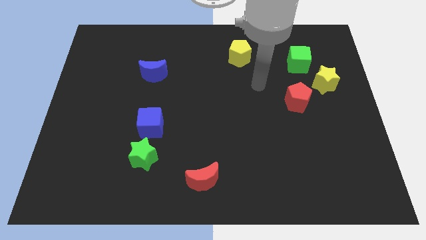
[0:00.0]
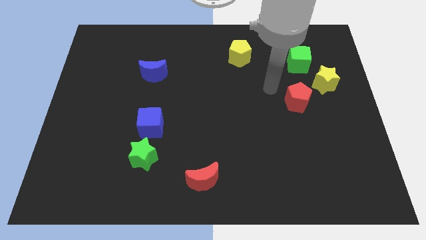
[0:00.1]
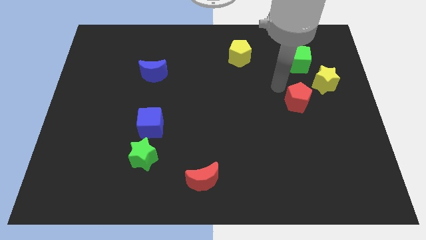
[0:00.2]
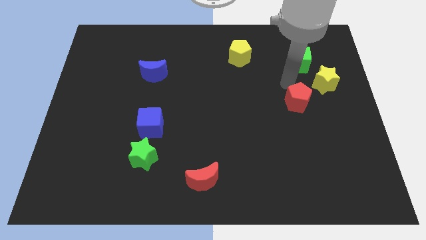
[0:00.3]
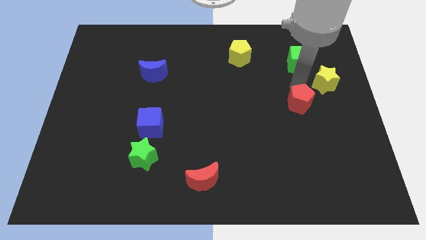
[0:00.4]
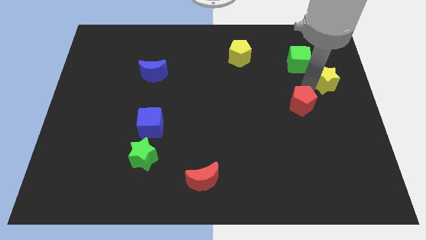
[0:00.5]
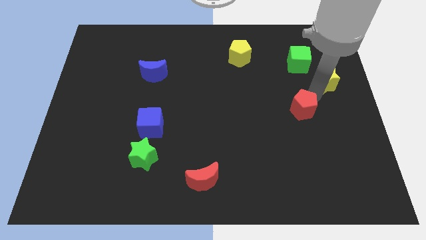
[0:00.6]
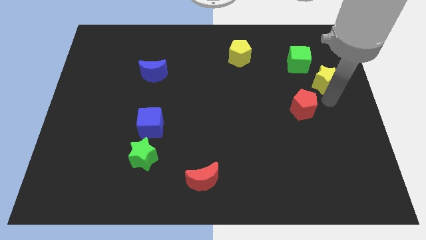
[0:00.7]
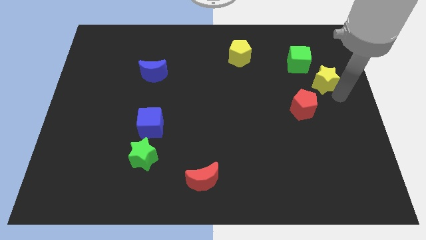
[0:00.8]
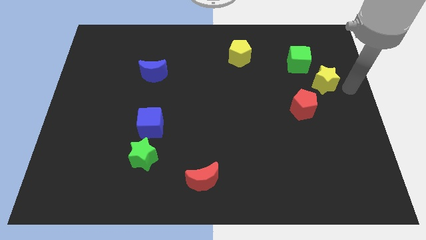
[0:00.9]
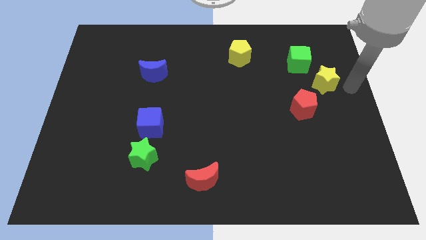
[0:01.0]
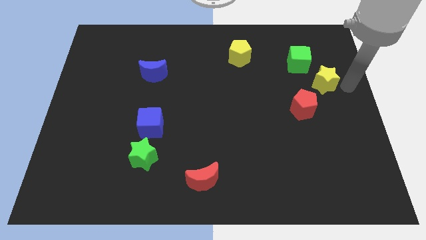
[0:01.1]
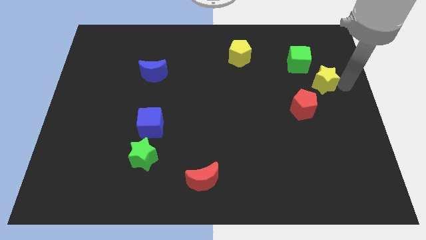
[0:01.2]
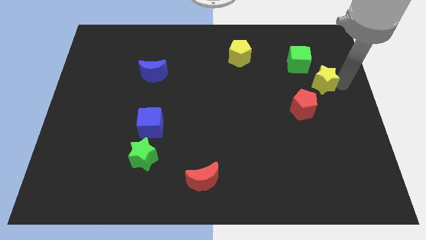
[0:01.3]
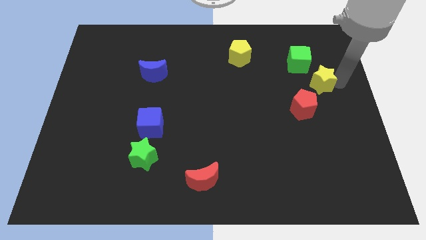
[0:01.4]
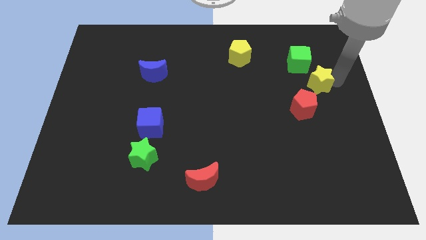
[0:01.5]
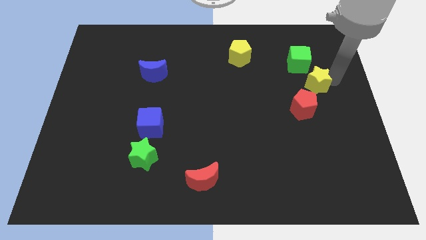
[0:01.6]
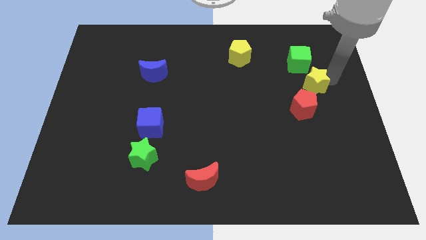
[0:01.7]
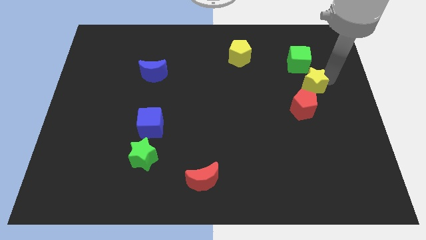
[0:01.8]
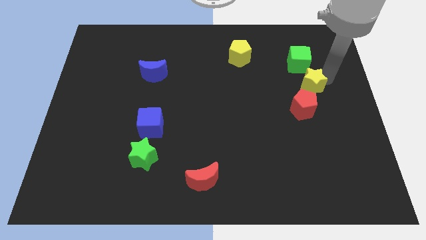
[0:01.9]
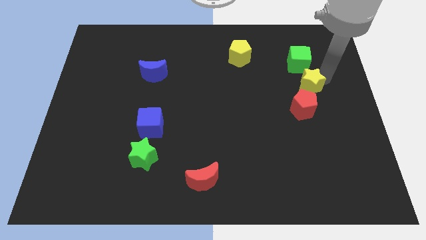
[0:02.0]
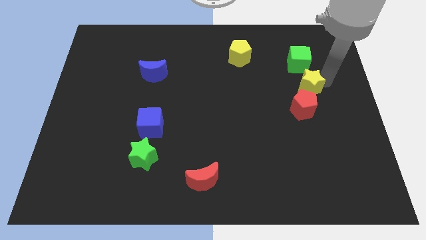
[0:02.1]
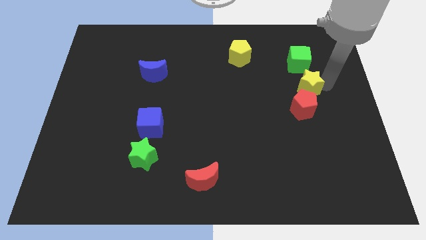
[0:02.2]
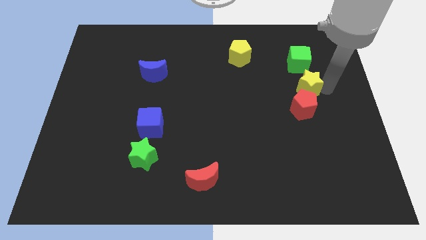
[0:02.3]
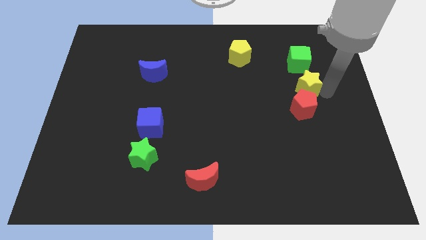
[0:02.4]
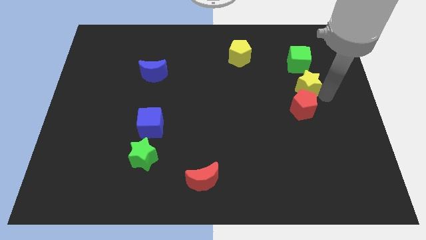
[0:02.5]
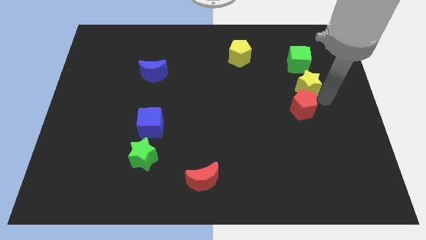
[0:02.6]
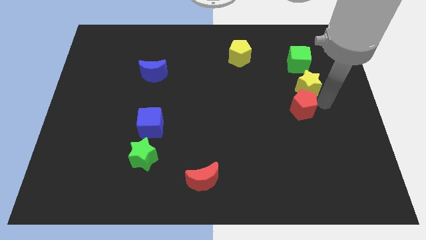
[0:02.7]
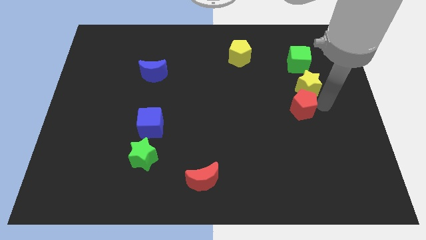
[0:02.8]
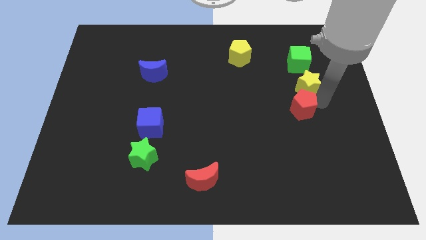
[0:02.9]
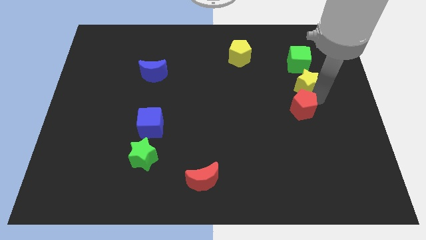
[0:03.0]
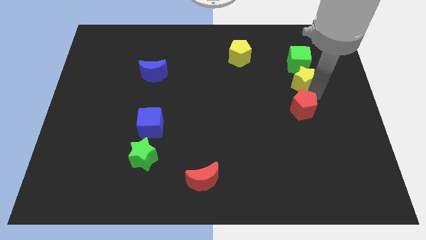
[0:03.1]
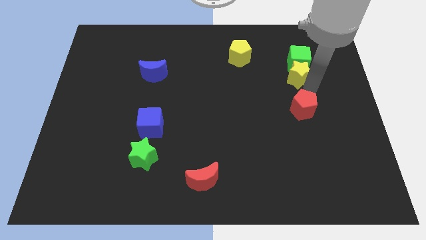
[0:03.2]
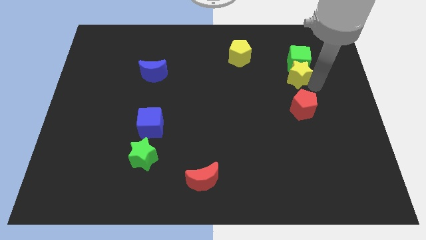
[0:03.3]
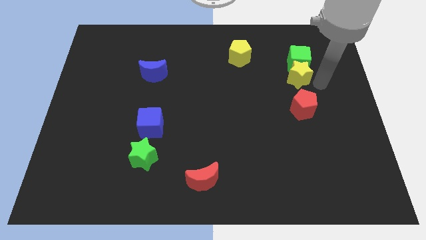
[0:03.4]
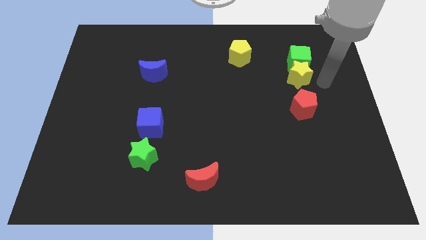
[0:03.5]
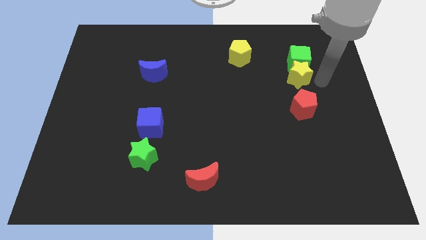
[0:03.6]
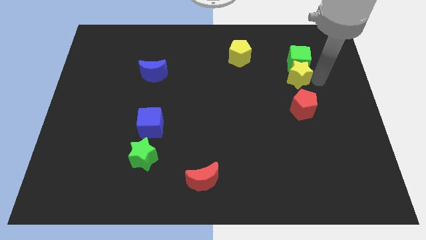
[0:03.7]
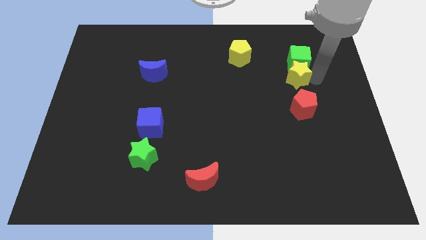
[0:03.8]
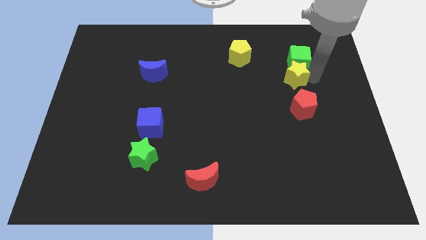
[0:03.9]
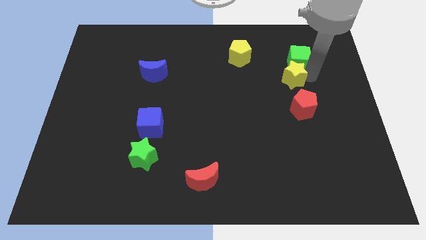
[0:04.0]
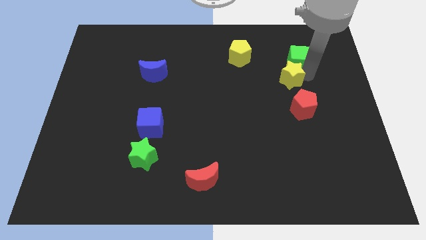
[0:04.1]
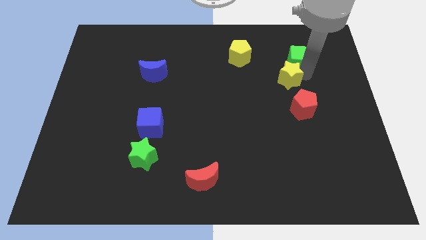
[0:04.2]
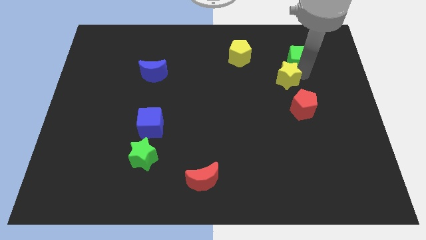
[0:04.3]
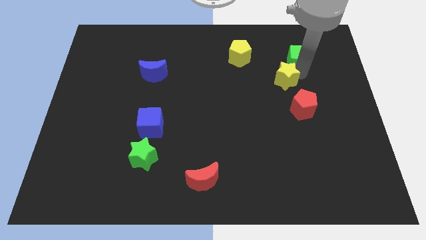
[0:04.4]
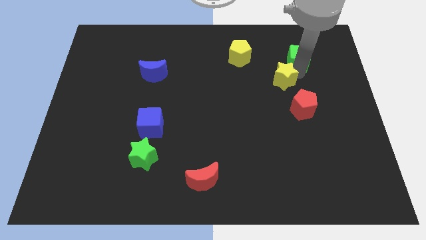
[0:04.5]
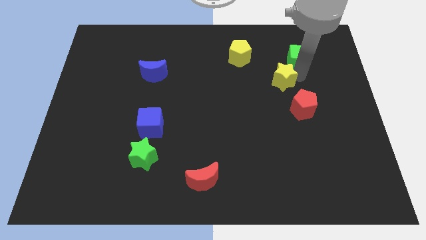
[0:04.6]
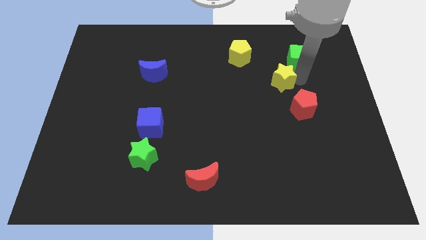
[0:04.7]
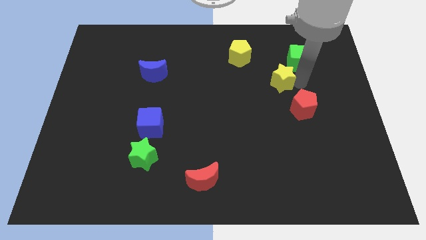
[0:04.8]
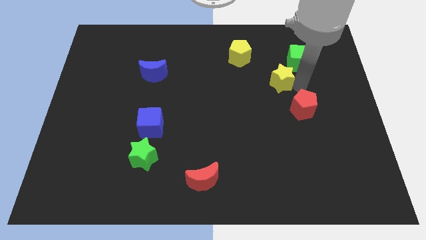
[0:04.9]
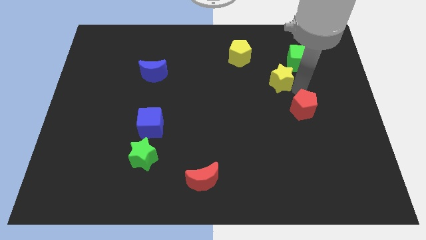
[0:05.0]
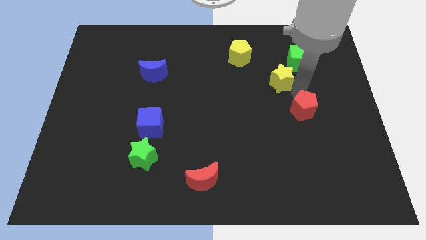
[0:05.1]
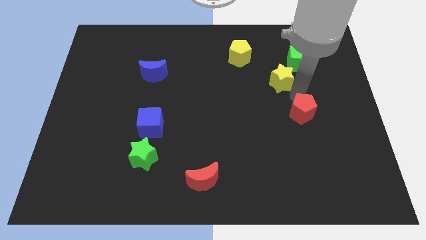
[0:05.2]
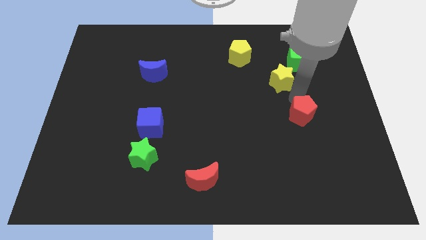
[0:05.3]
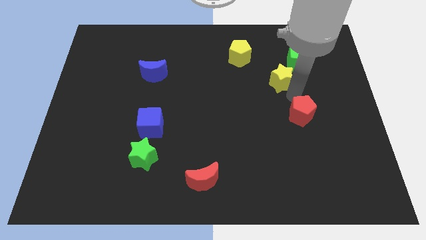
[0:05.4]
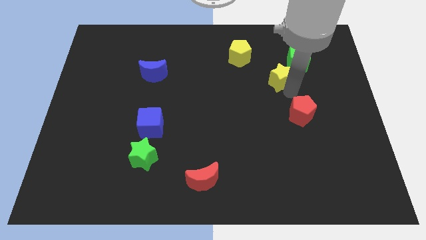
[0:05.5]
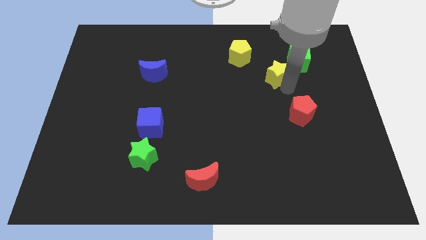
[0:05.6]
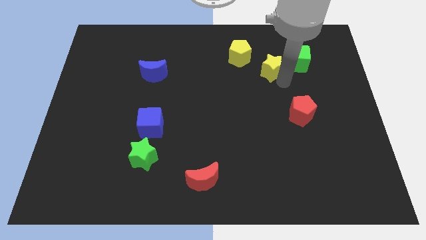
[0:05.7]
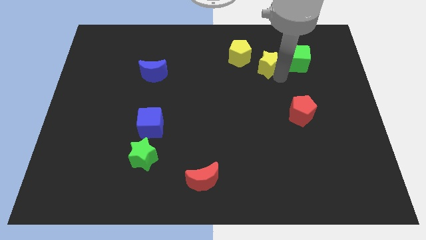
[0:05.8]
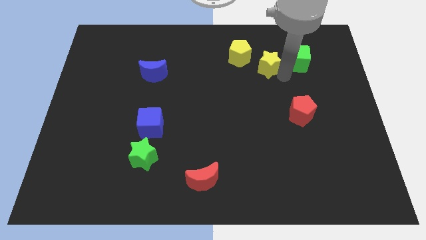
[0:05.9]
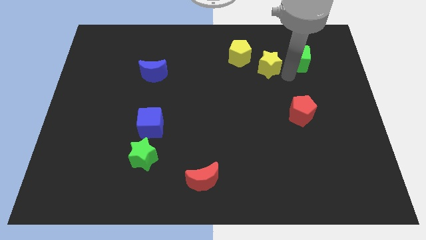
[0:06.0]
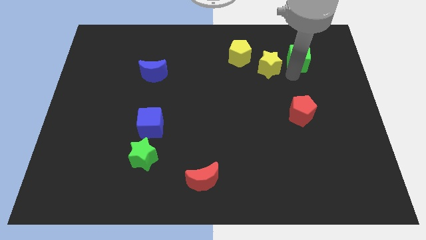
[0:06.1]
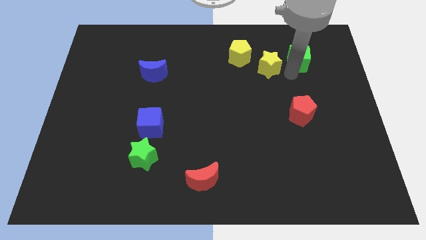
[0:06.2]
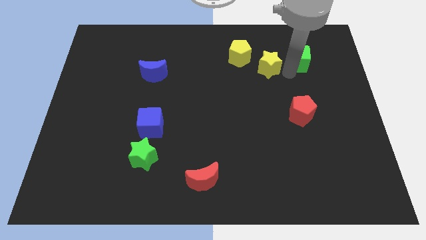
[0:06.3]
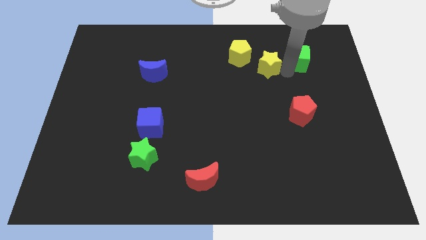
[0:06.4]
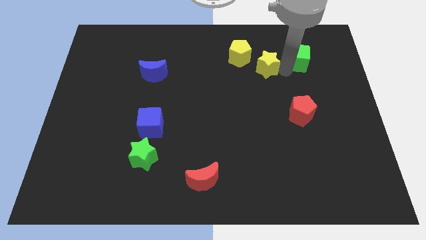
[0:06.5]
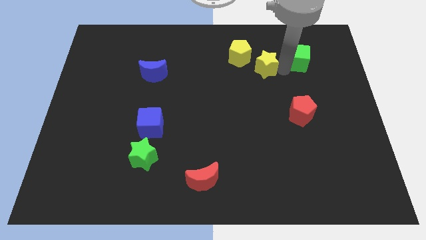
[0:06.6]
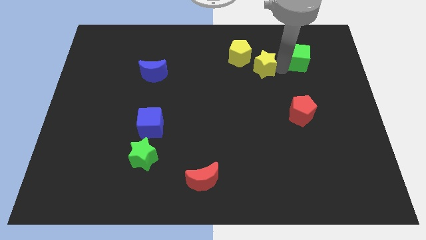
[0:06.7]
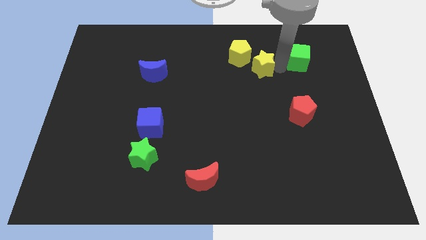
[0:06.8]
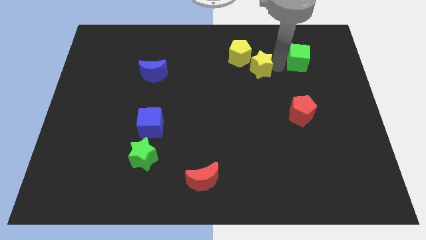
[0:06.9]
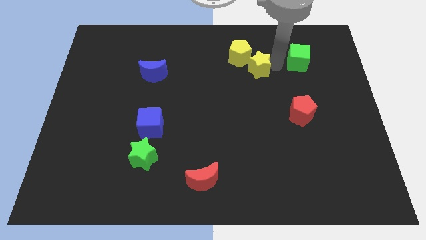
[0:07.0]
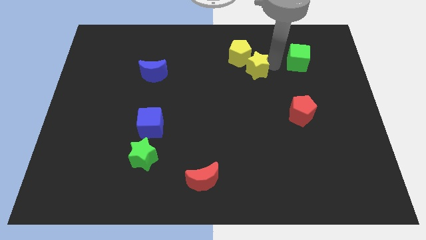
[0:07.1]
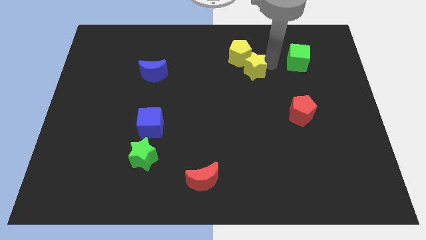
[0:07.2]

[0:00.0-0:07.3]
move the yellow star close to the yellow pentagon
